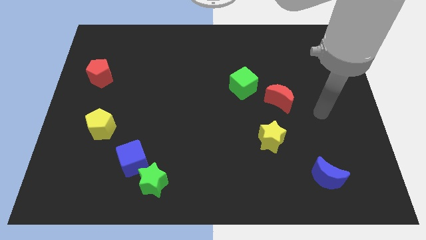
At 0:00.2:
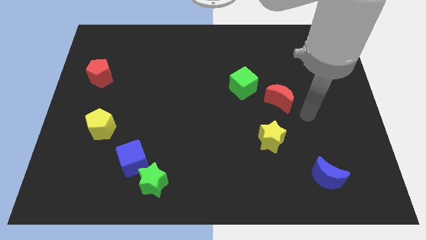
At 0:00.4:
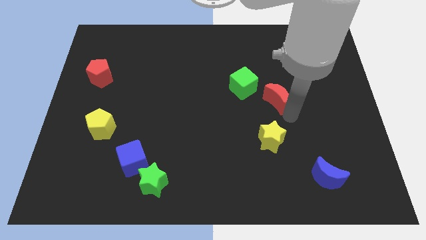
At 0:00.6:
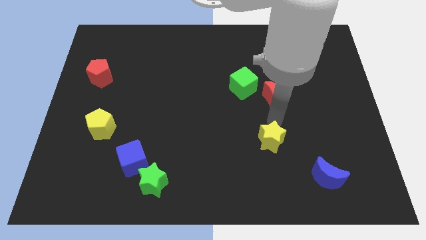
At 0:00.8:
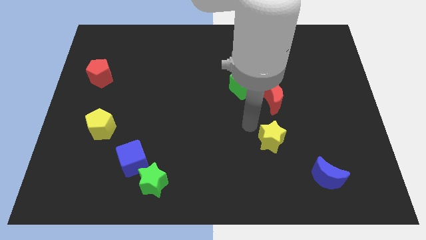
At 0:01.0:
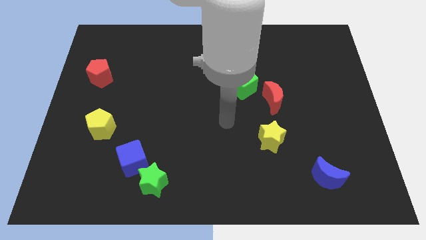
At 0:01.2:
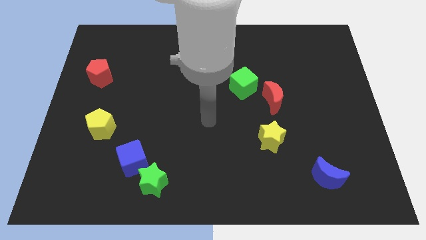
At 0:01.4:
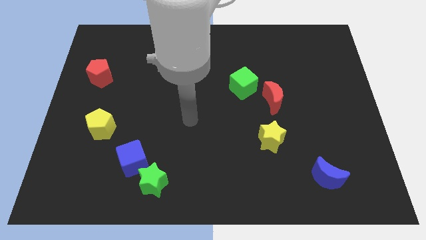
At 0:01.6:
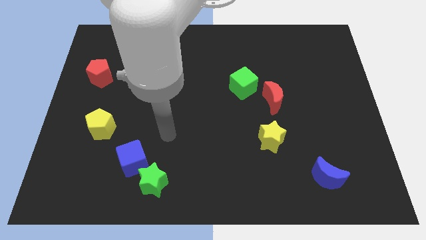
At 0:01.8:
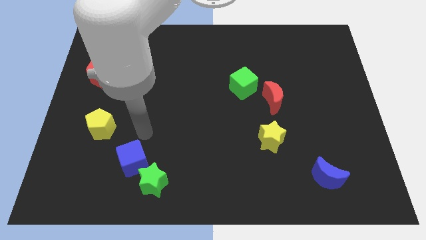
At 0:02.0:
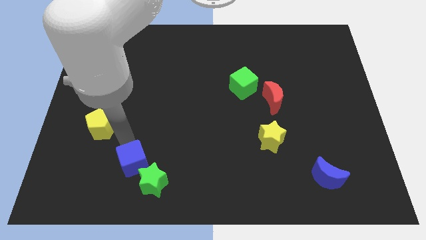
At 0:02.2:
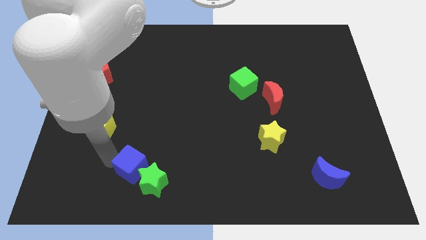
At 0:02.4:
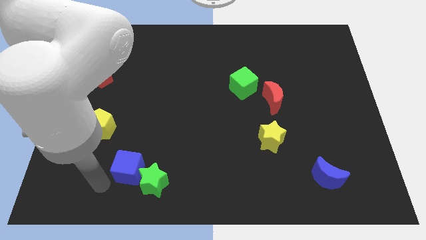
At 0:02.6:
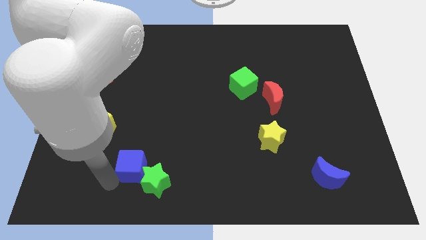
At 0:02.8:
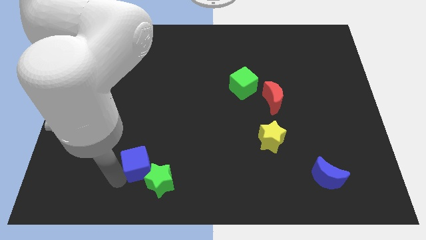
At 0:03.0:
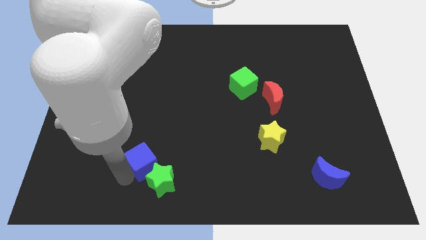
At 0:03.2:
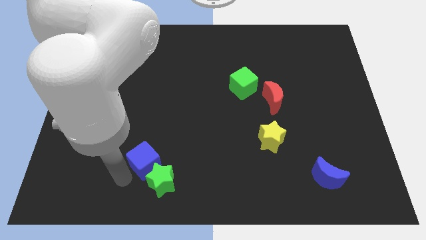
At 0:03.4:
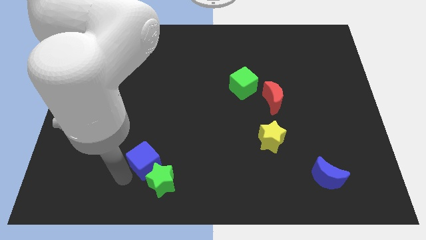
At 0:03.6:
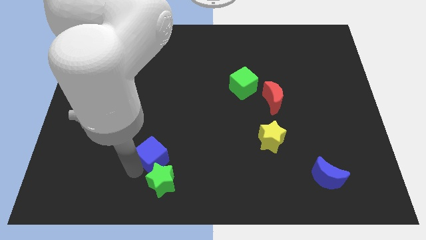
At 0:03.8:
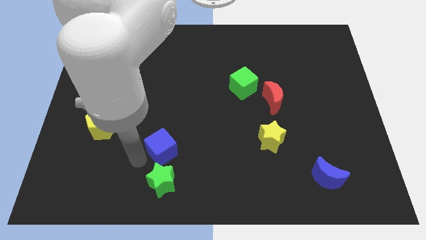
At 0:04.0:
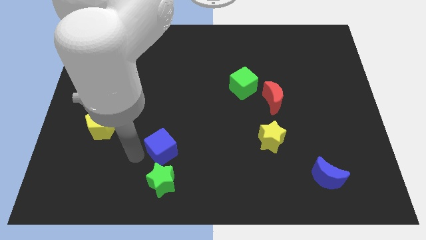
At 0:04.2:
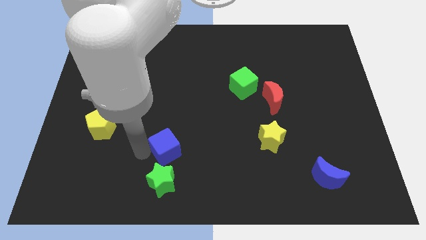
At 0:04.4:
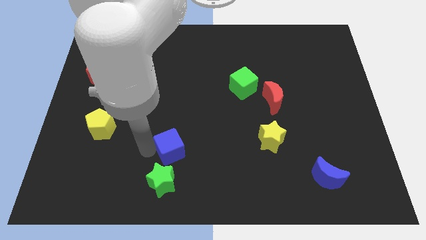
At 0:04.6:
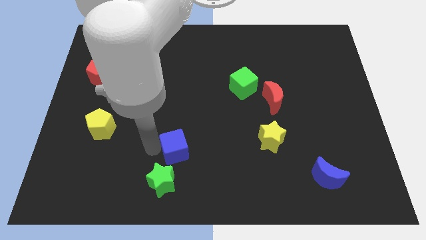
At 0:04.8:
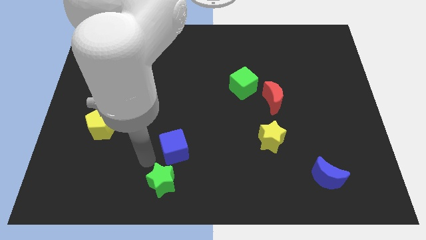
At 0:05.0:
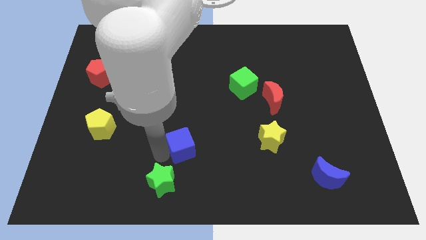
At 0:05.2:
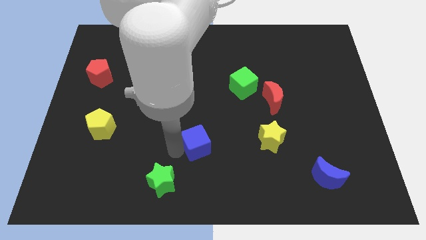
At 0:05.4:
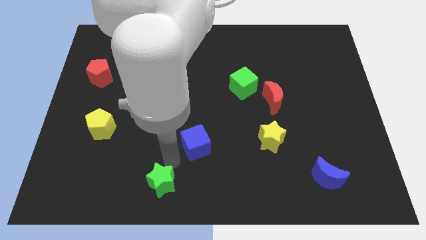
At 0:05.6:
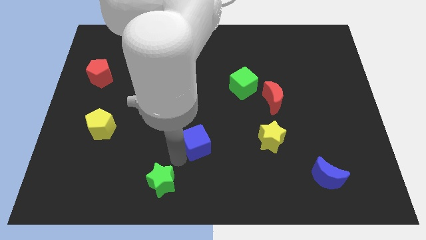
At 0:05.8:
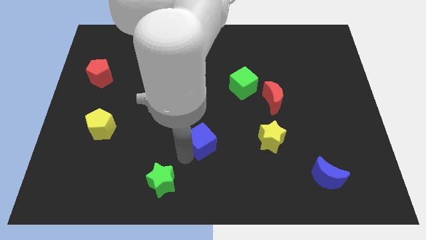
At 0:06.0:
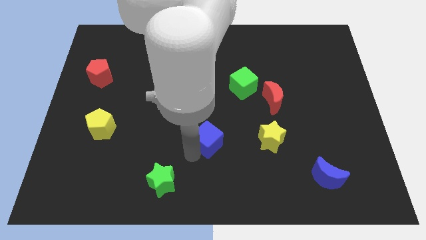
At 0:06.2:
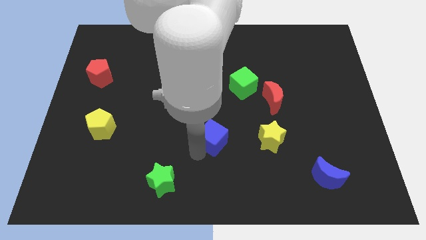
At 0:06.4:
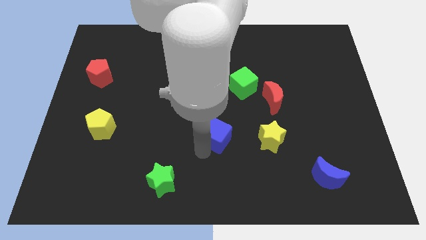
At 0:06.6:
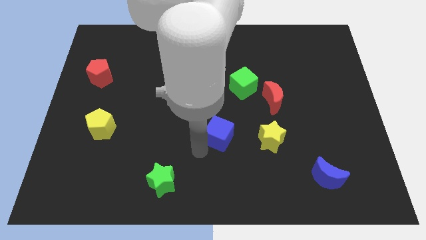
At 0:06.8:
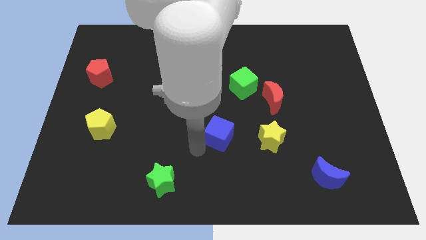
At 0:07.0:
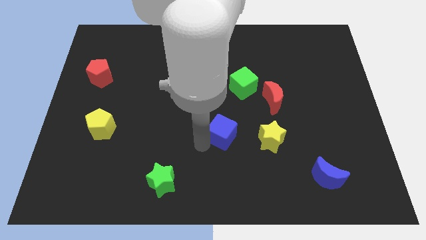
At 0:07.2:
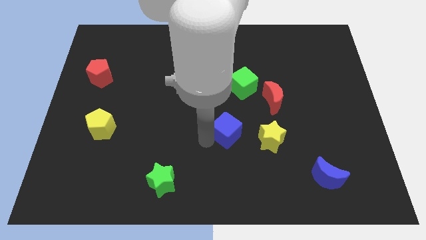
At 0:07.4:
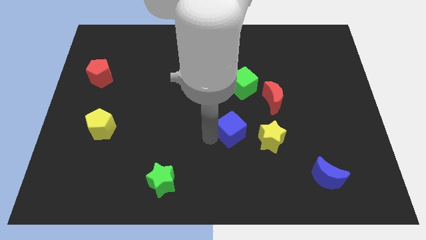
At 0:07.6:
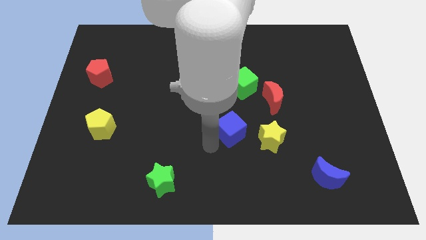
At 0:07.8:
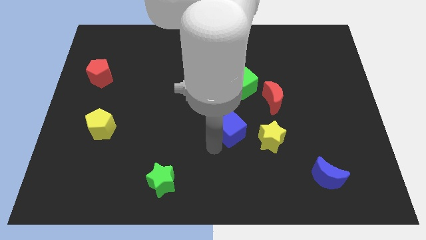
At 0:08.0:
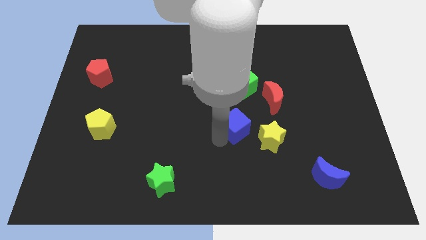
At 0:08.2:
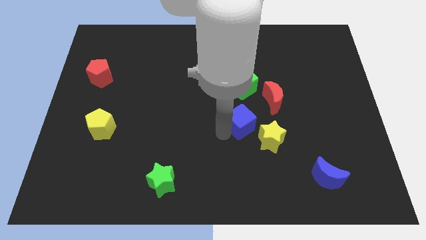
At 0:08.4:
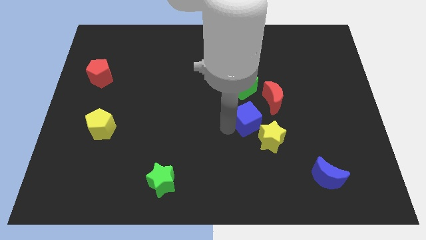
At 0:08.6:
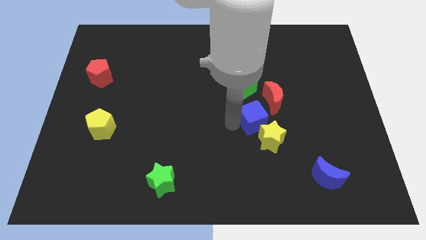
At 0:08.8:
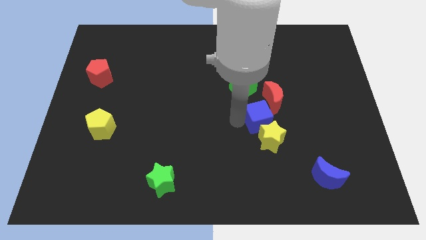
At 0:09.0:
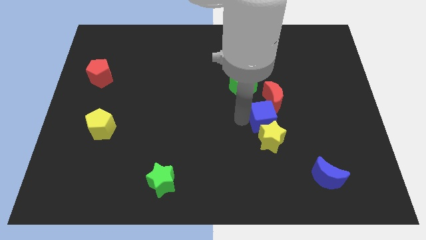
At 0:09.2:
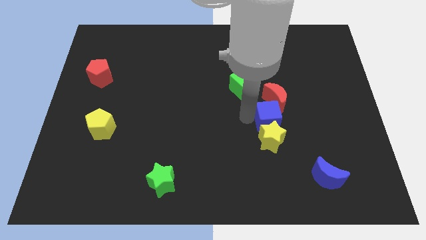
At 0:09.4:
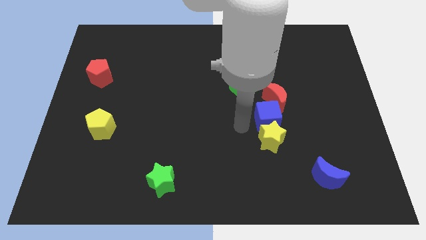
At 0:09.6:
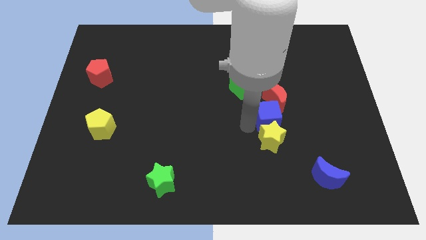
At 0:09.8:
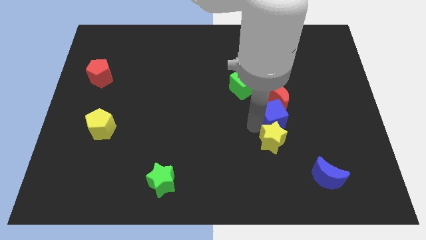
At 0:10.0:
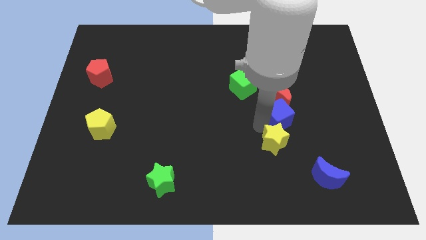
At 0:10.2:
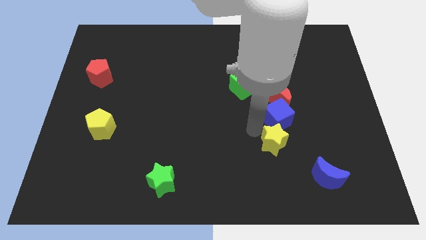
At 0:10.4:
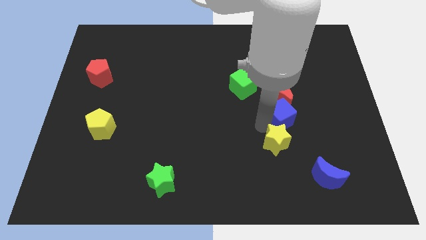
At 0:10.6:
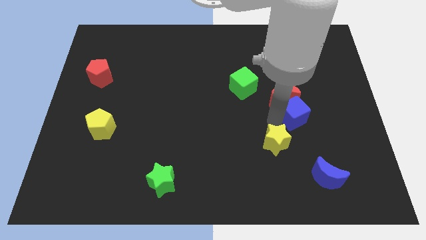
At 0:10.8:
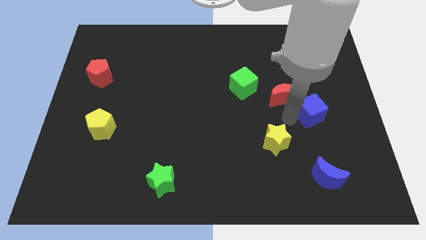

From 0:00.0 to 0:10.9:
push the blue cube just right of the red moon
